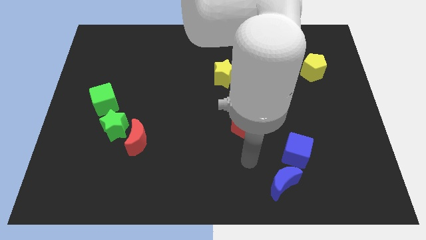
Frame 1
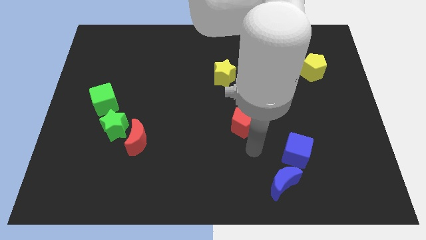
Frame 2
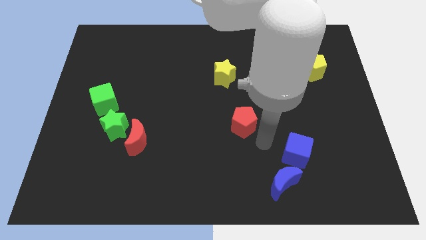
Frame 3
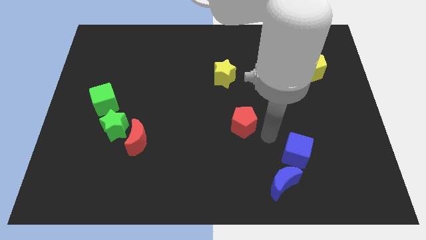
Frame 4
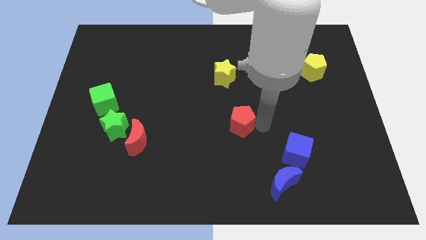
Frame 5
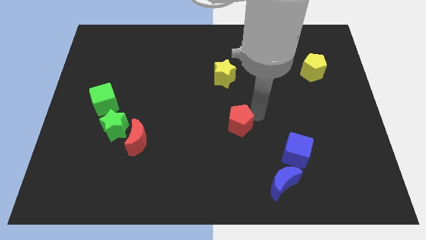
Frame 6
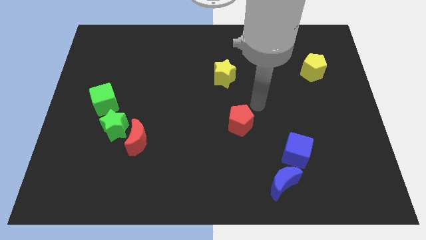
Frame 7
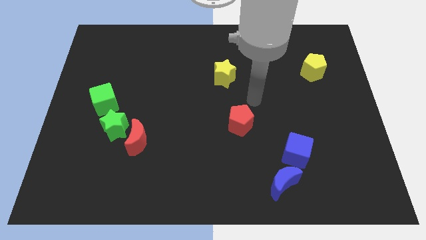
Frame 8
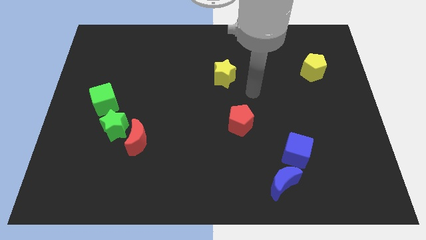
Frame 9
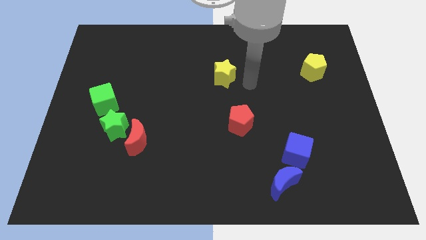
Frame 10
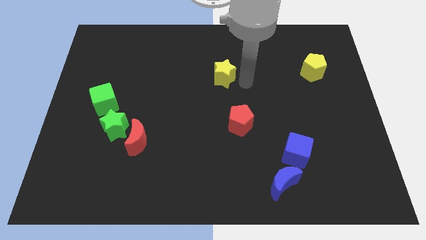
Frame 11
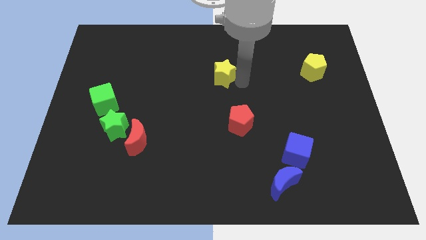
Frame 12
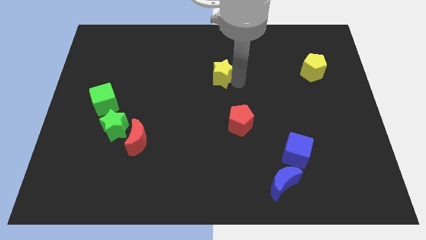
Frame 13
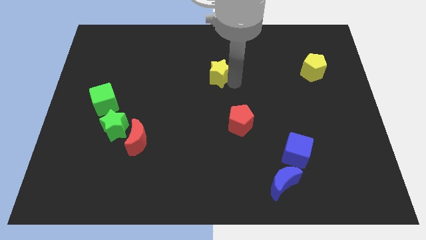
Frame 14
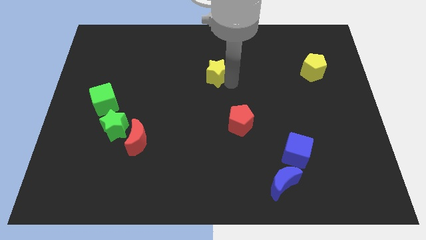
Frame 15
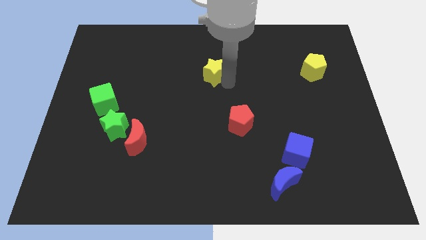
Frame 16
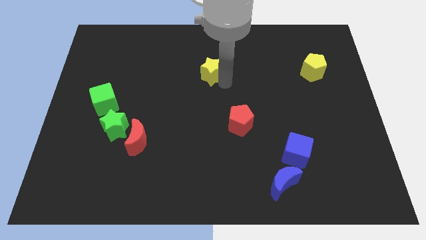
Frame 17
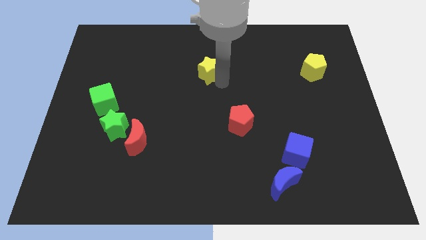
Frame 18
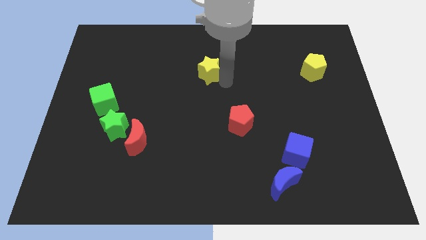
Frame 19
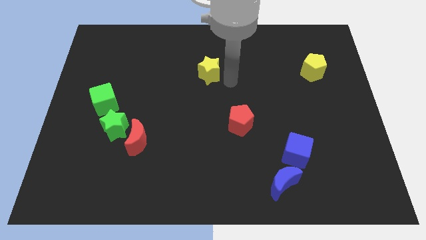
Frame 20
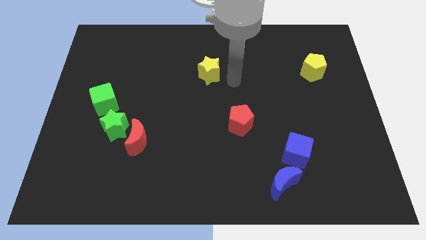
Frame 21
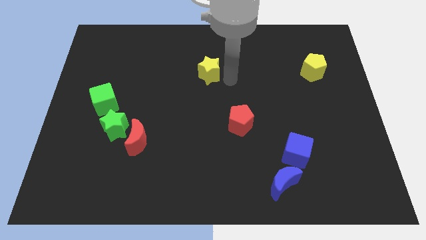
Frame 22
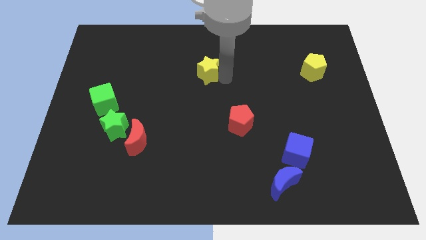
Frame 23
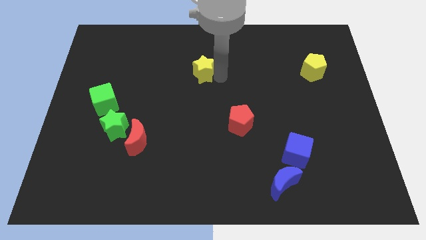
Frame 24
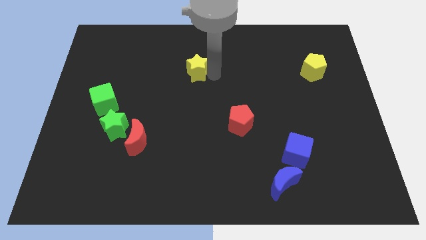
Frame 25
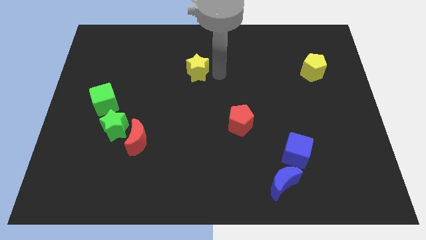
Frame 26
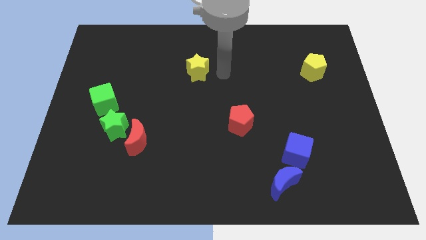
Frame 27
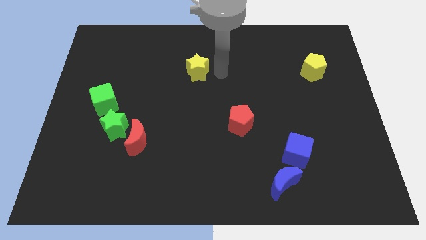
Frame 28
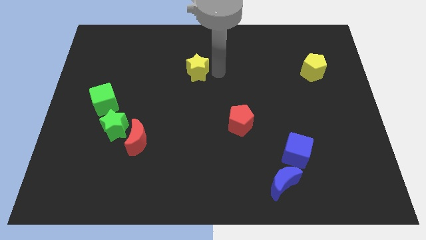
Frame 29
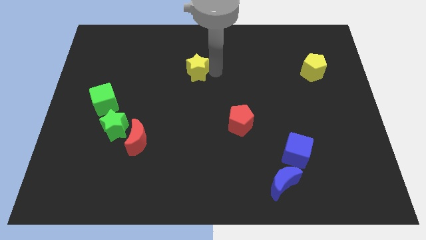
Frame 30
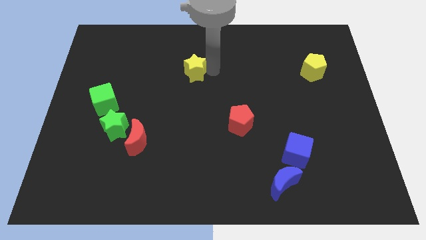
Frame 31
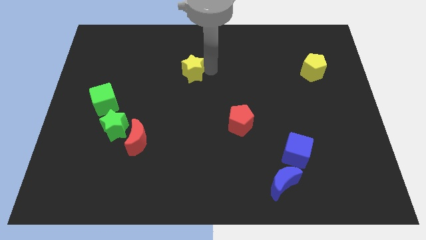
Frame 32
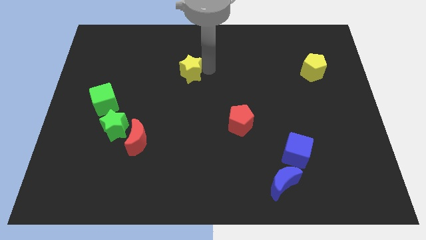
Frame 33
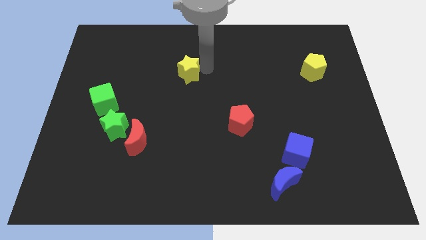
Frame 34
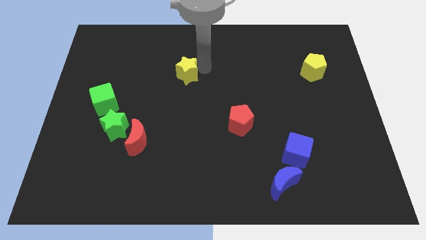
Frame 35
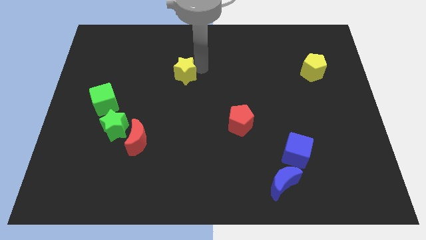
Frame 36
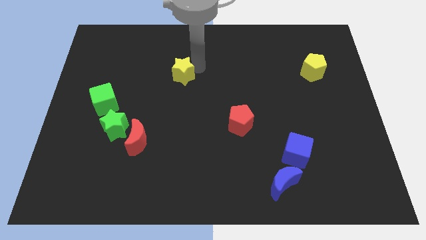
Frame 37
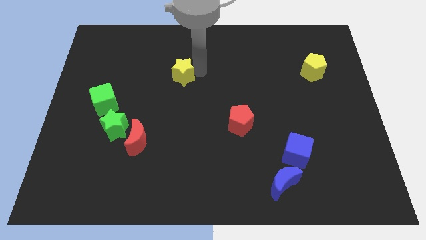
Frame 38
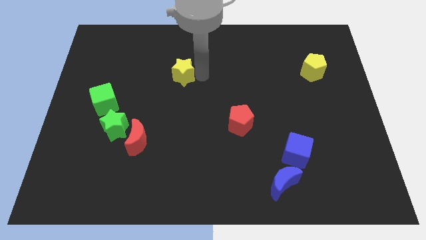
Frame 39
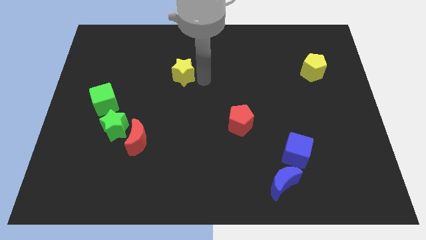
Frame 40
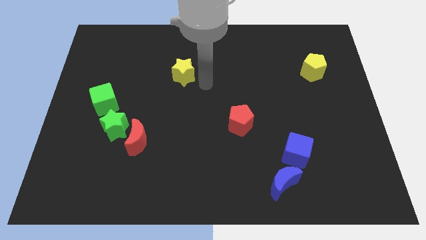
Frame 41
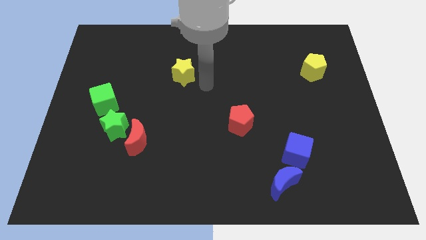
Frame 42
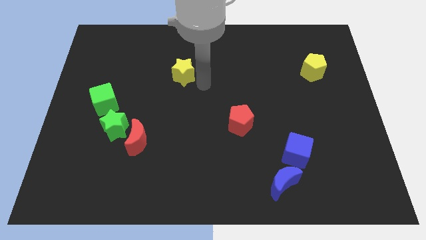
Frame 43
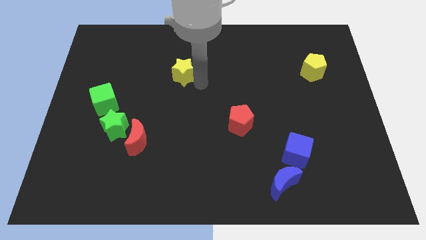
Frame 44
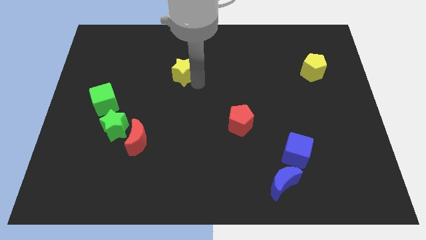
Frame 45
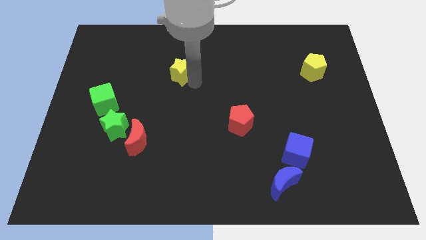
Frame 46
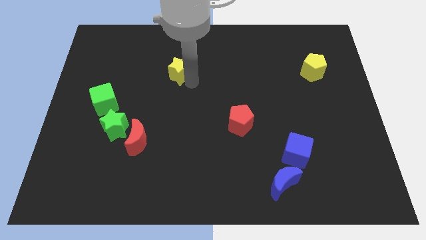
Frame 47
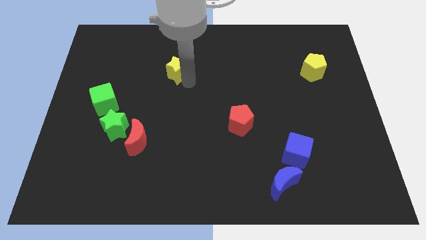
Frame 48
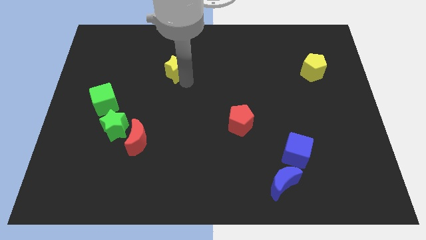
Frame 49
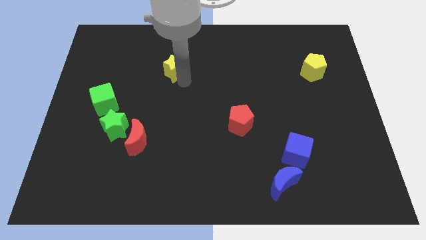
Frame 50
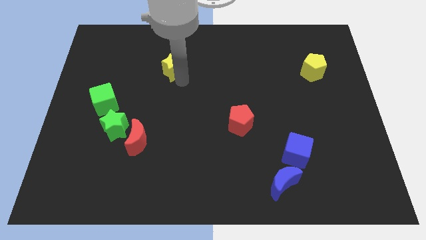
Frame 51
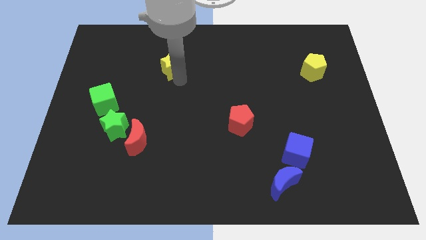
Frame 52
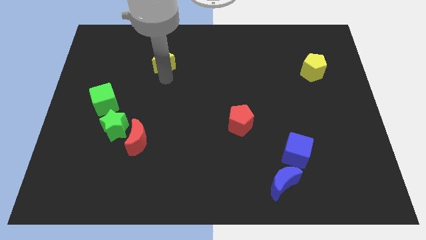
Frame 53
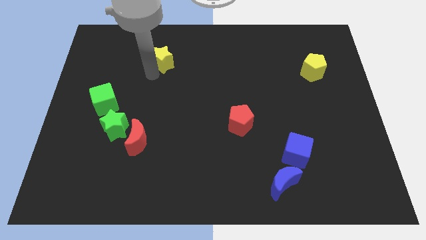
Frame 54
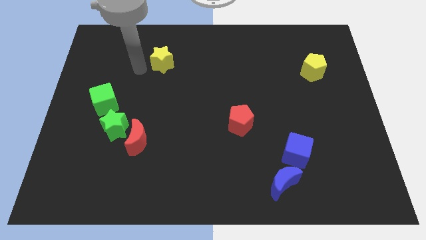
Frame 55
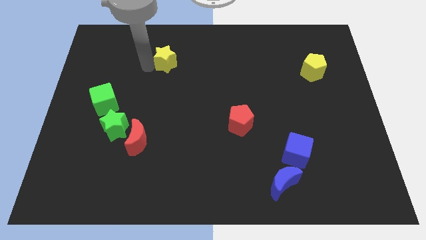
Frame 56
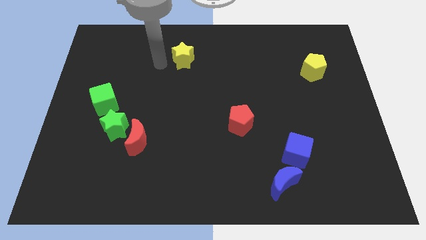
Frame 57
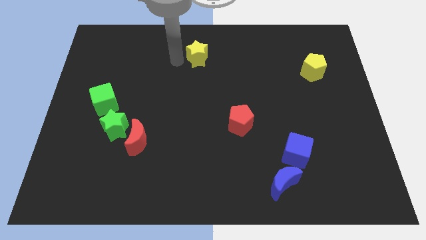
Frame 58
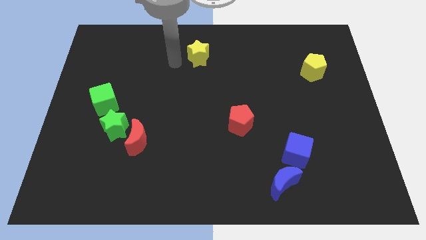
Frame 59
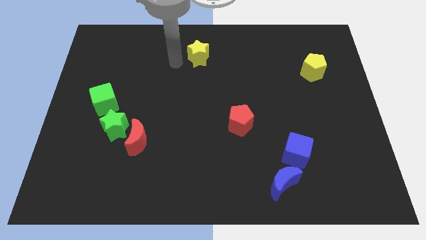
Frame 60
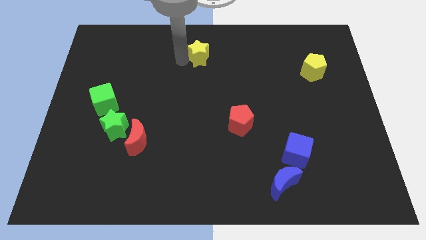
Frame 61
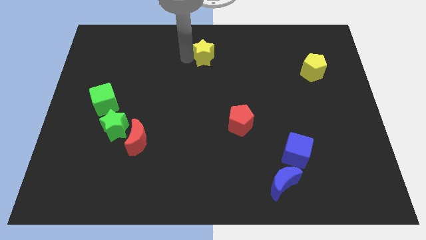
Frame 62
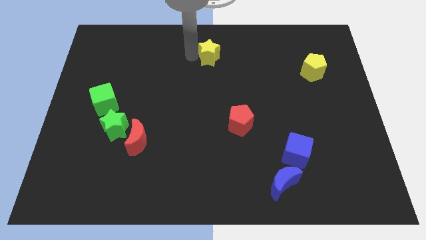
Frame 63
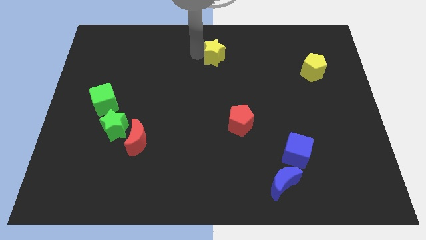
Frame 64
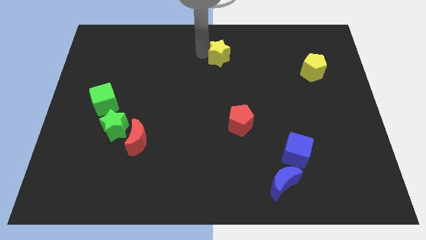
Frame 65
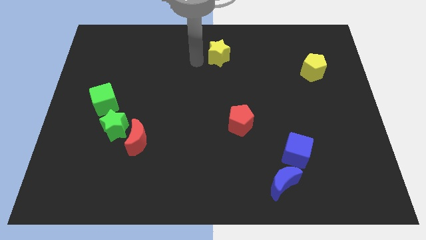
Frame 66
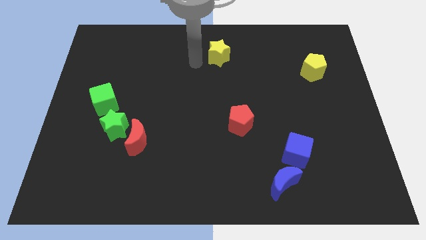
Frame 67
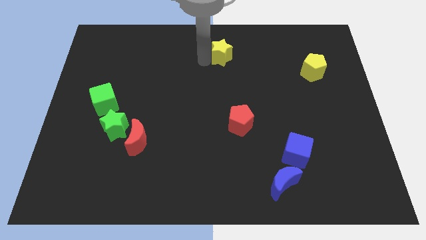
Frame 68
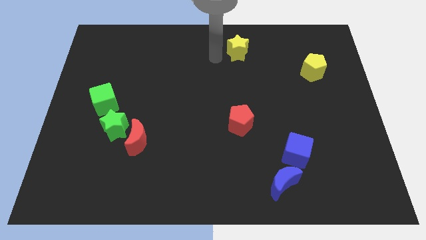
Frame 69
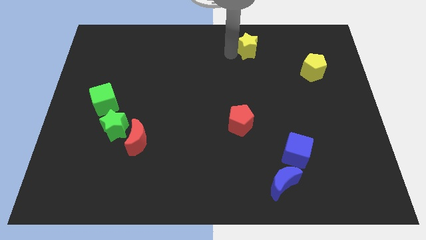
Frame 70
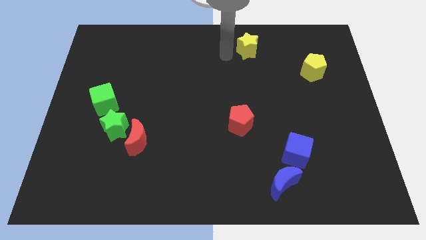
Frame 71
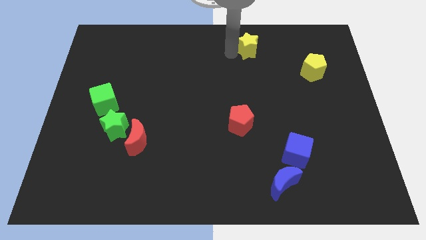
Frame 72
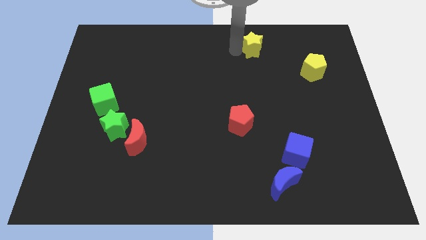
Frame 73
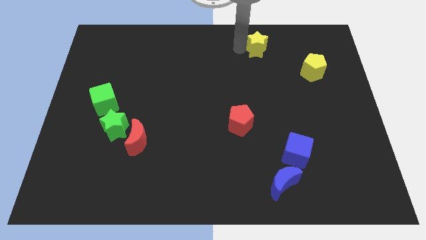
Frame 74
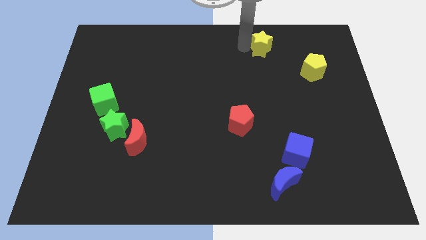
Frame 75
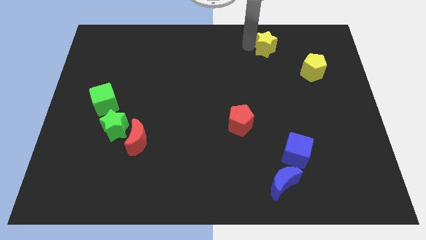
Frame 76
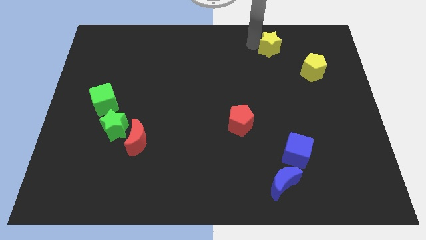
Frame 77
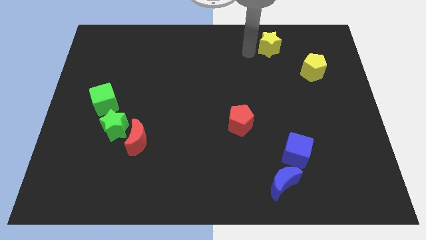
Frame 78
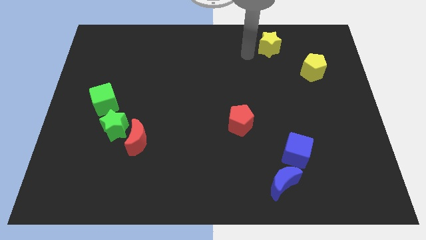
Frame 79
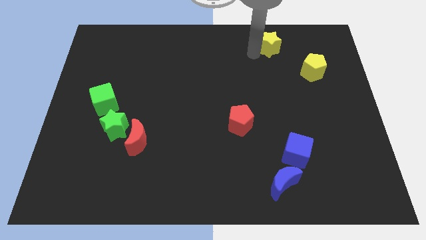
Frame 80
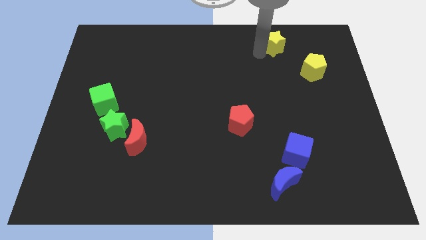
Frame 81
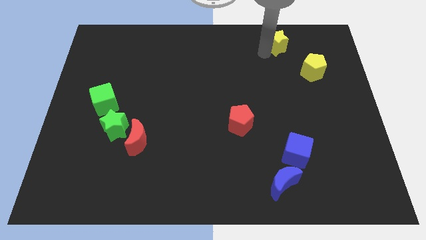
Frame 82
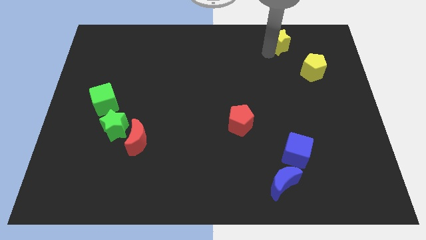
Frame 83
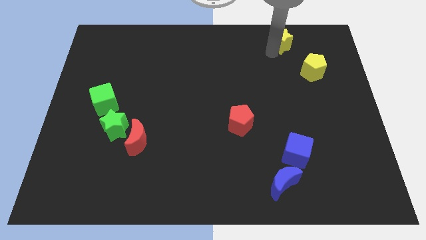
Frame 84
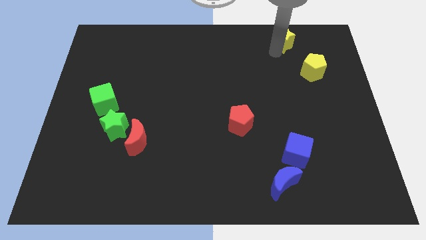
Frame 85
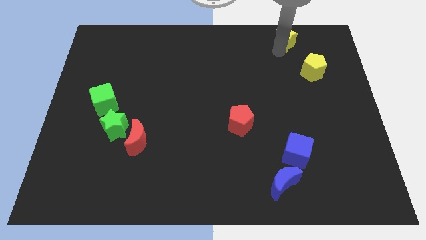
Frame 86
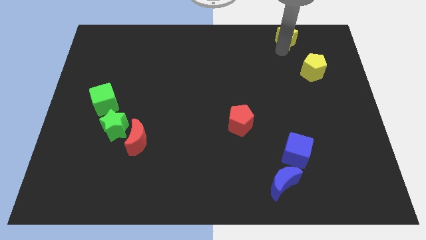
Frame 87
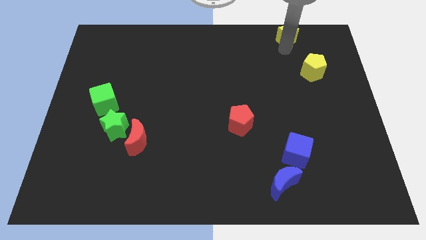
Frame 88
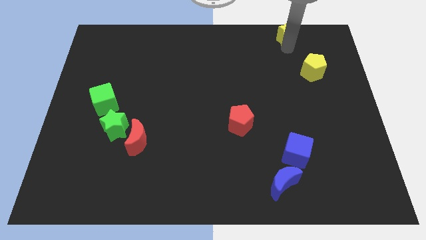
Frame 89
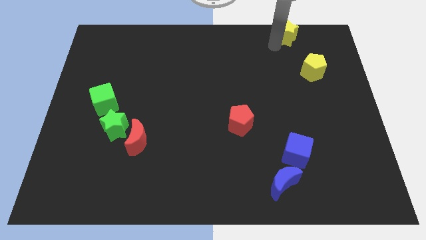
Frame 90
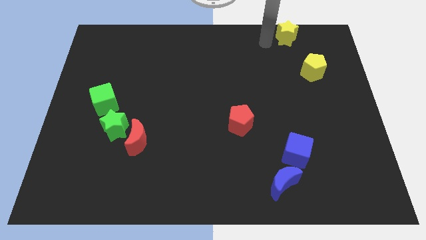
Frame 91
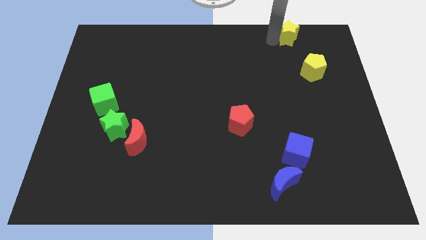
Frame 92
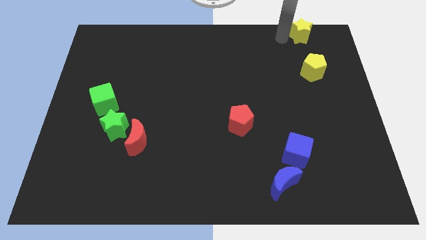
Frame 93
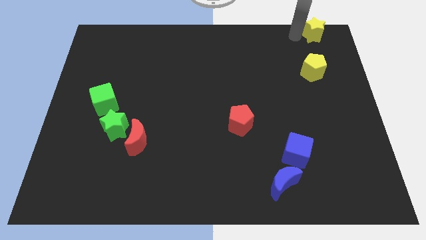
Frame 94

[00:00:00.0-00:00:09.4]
put the yellow star to the top right of the board
